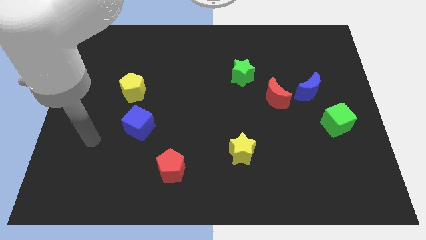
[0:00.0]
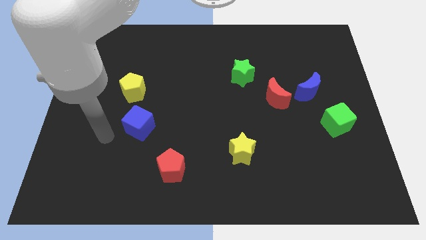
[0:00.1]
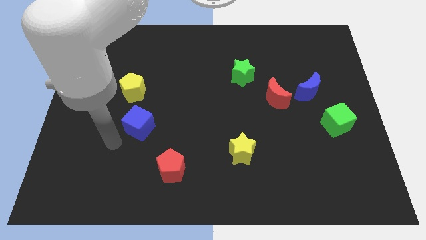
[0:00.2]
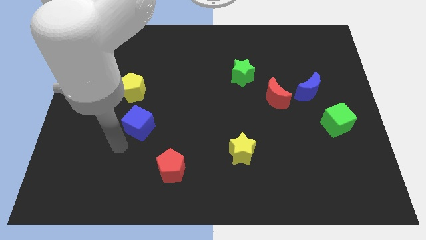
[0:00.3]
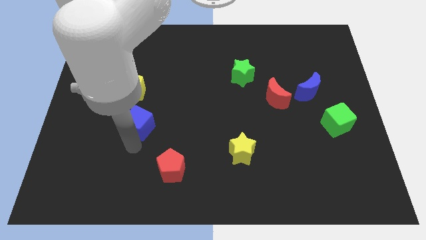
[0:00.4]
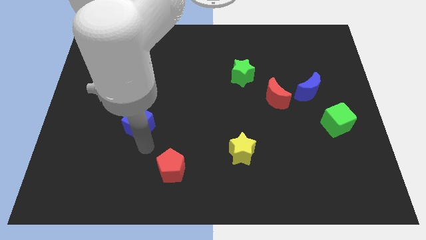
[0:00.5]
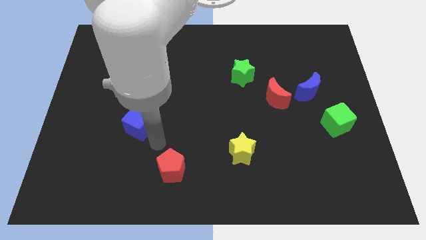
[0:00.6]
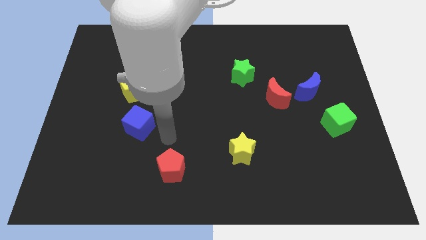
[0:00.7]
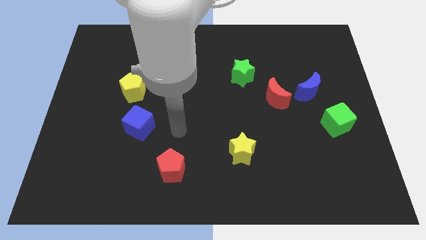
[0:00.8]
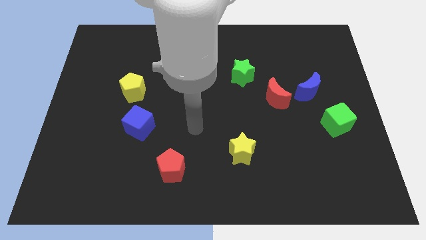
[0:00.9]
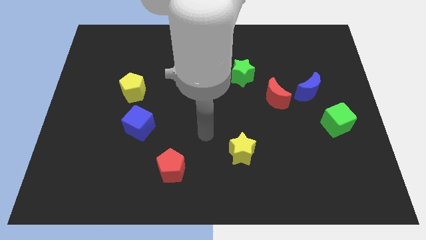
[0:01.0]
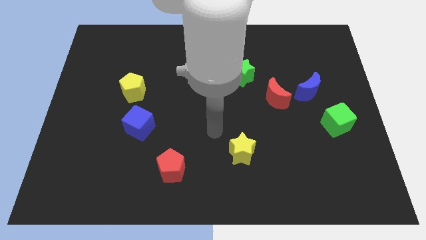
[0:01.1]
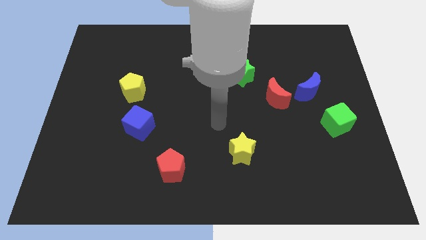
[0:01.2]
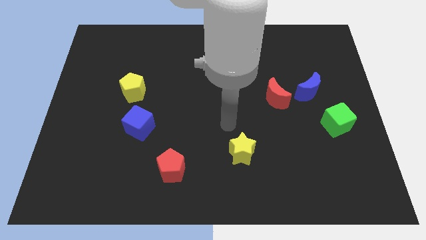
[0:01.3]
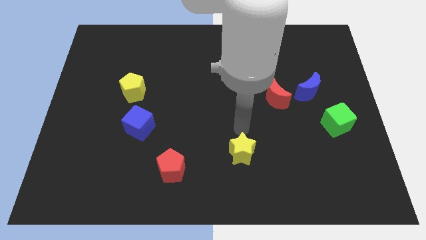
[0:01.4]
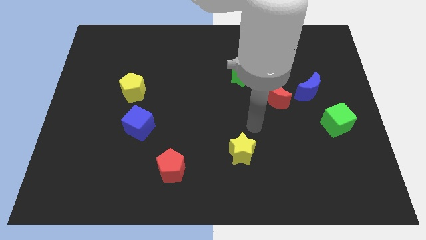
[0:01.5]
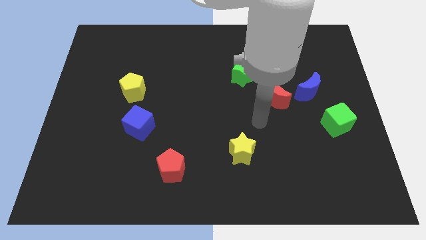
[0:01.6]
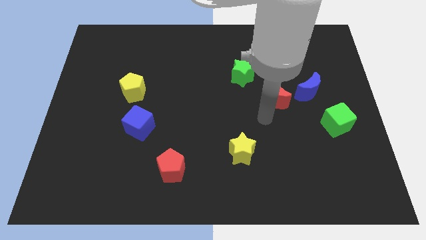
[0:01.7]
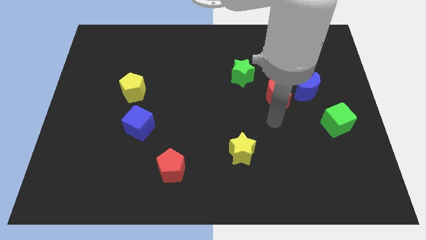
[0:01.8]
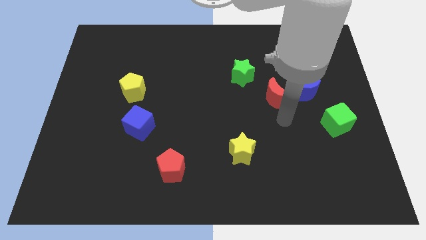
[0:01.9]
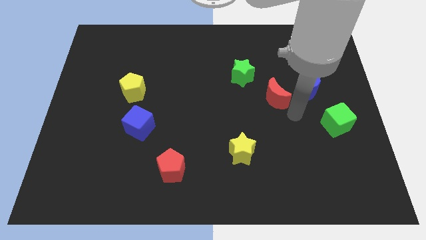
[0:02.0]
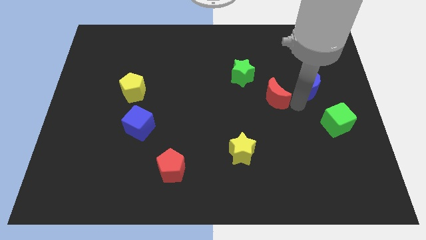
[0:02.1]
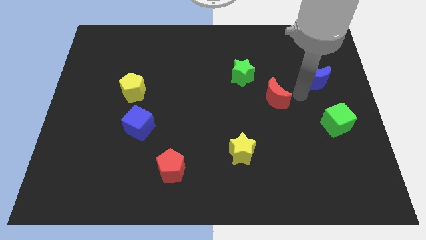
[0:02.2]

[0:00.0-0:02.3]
separate the red moon from the blue moon

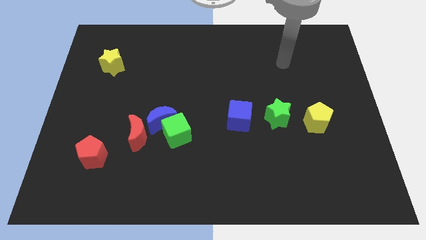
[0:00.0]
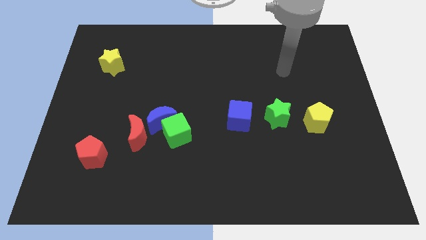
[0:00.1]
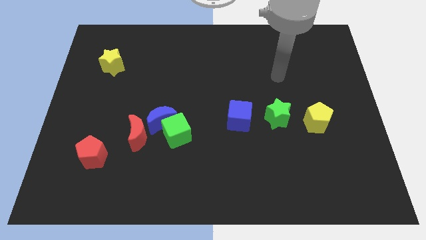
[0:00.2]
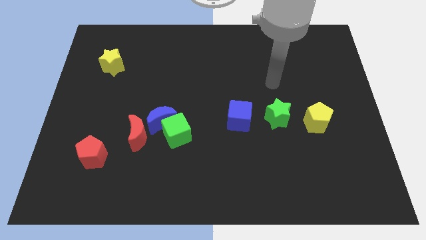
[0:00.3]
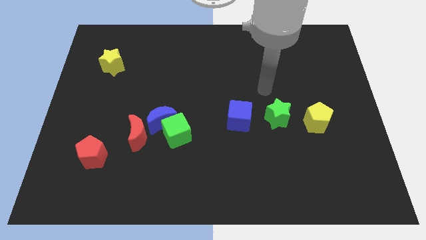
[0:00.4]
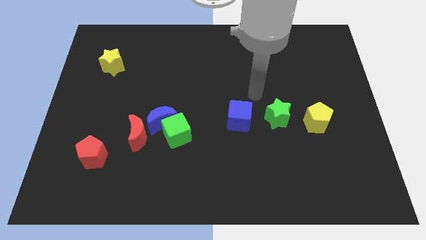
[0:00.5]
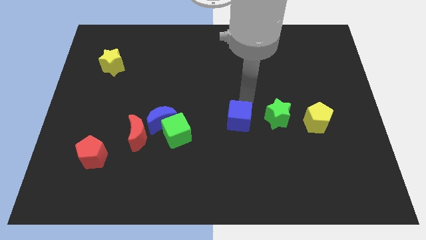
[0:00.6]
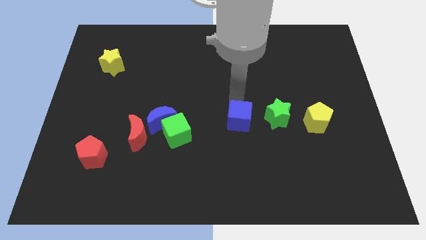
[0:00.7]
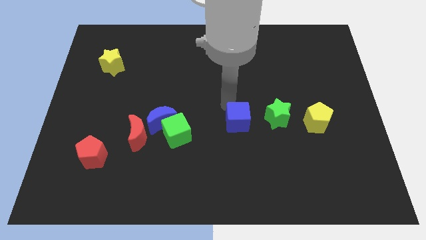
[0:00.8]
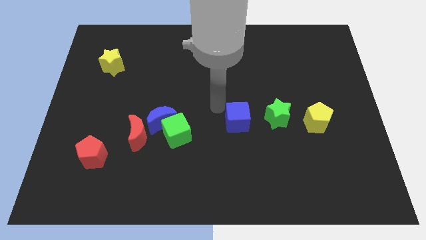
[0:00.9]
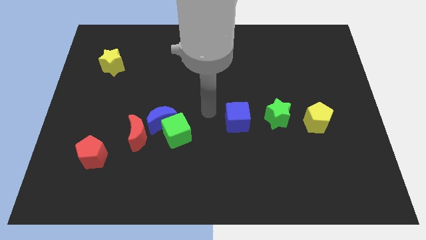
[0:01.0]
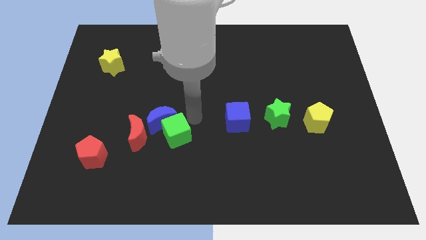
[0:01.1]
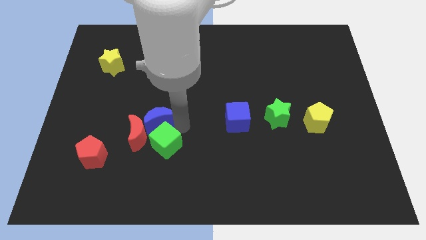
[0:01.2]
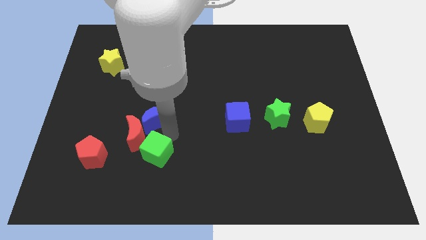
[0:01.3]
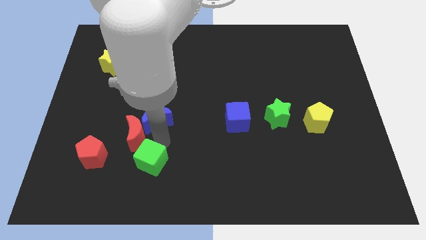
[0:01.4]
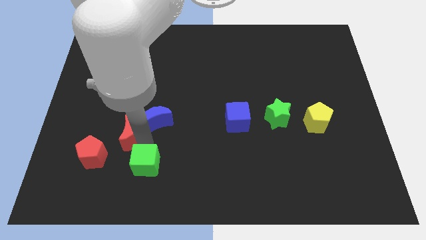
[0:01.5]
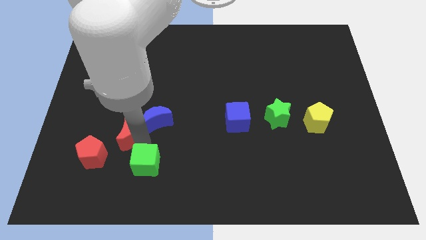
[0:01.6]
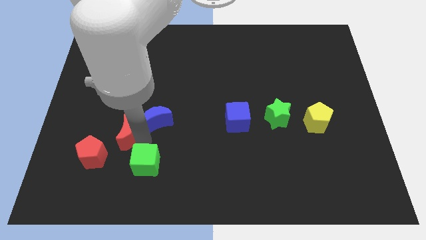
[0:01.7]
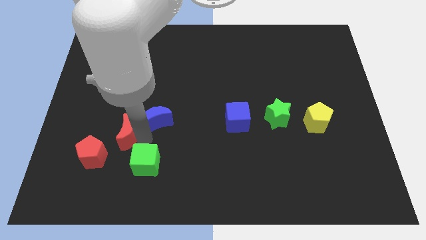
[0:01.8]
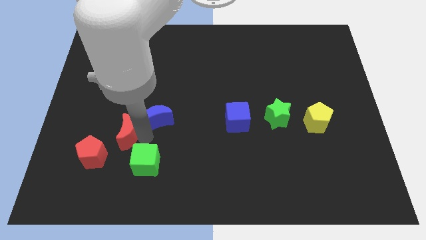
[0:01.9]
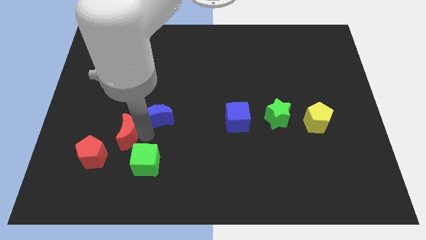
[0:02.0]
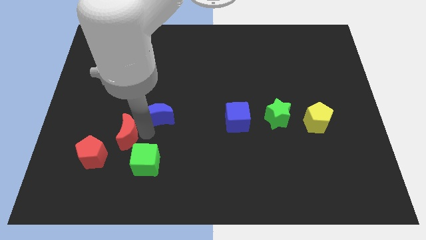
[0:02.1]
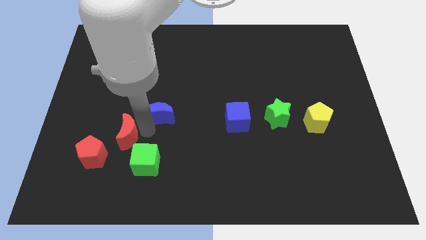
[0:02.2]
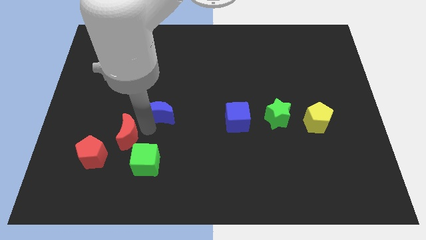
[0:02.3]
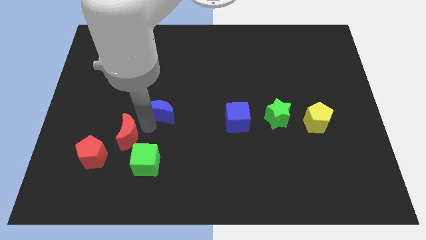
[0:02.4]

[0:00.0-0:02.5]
separate the blue moon from the green cube and red moon

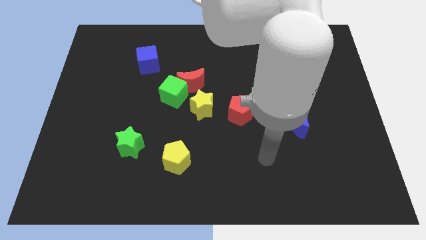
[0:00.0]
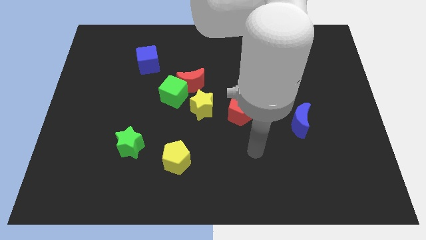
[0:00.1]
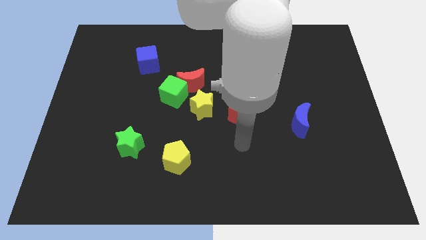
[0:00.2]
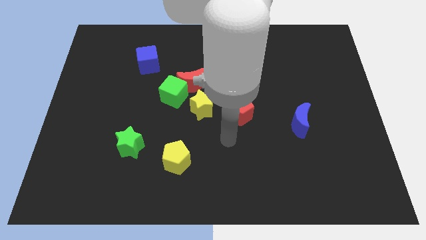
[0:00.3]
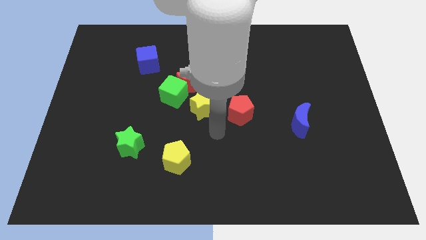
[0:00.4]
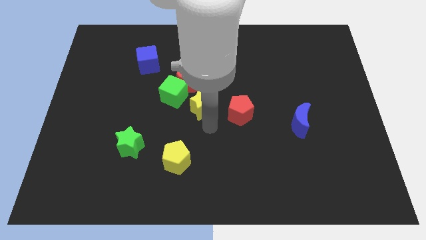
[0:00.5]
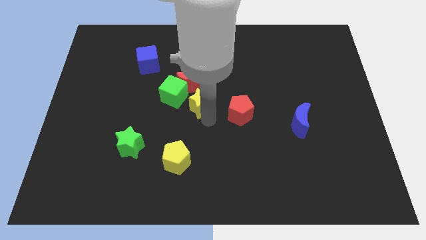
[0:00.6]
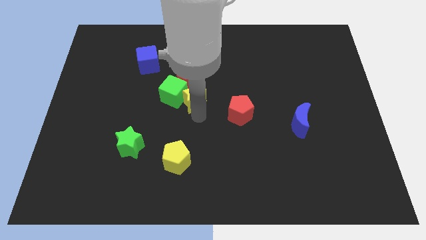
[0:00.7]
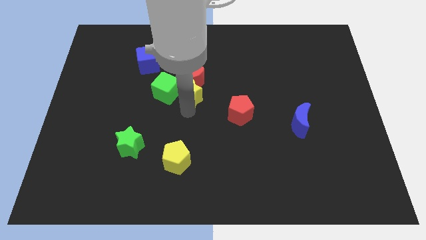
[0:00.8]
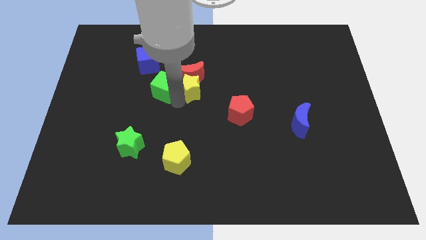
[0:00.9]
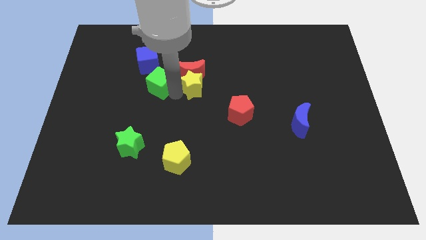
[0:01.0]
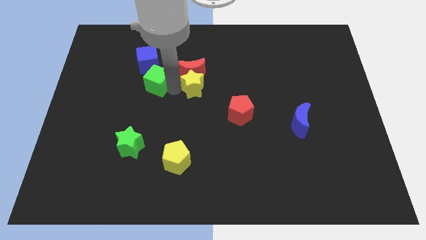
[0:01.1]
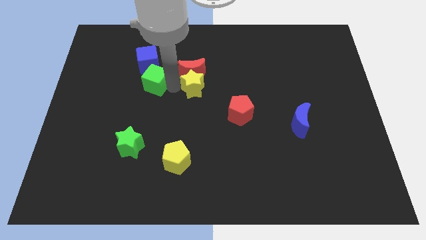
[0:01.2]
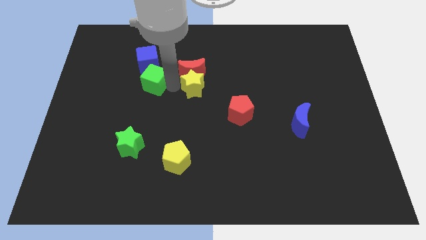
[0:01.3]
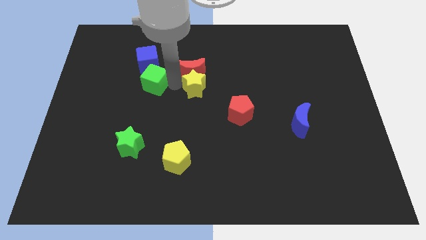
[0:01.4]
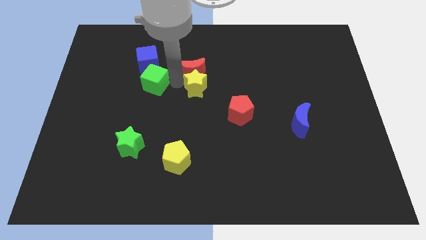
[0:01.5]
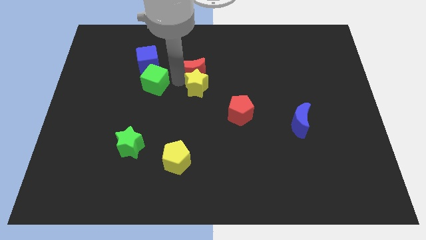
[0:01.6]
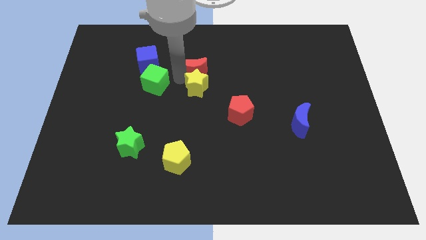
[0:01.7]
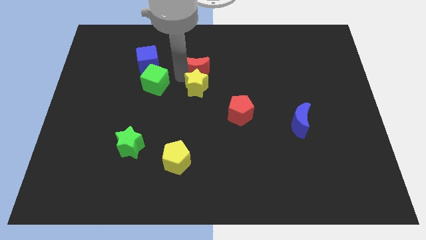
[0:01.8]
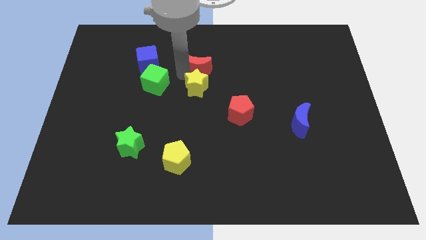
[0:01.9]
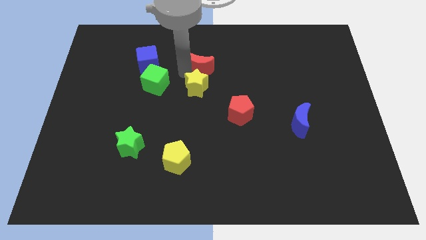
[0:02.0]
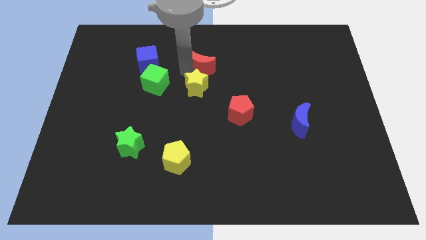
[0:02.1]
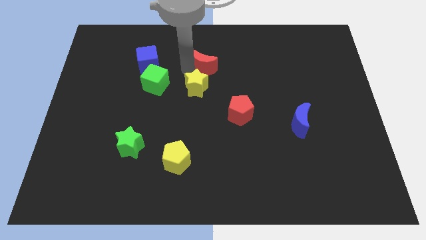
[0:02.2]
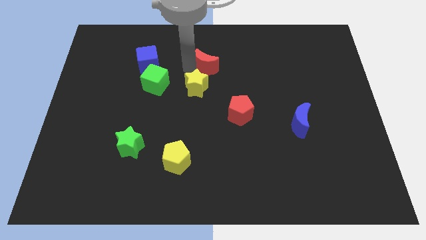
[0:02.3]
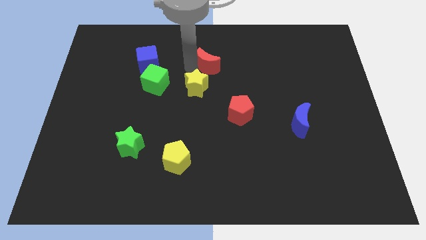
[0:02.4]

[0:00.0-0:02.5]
separate the red moon from the green cube and yellow star

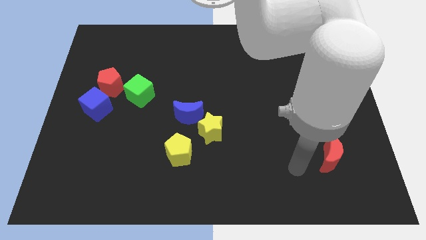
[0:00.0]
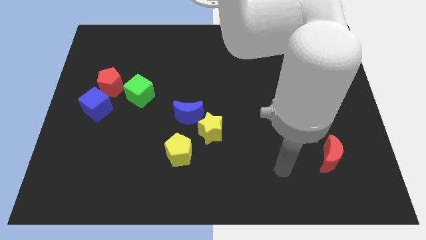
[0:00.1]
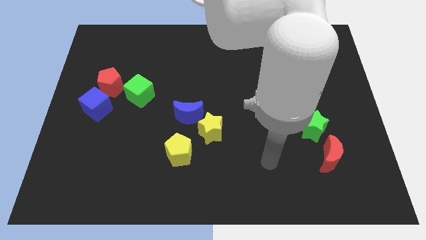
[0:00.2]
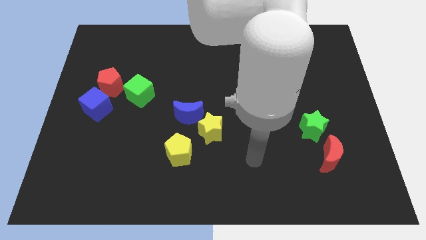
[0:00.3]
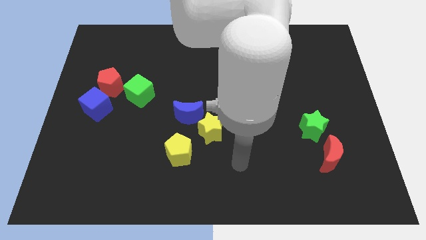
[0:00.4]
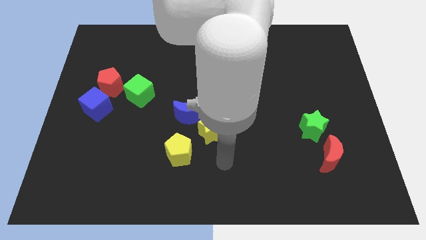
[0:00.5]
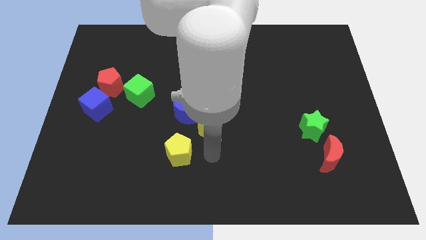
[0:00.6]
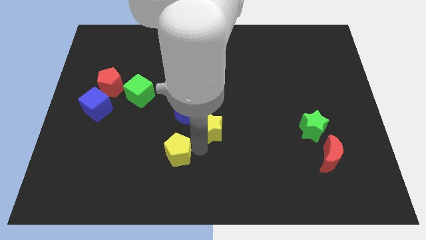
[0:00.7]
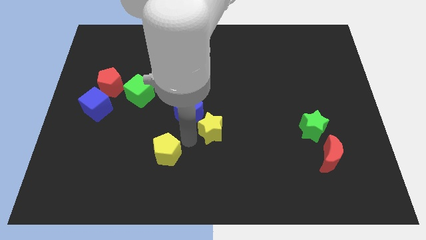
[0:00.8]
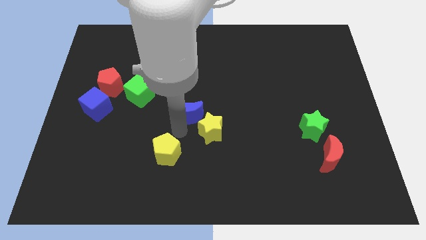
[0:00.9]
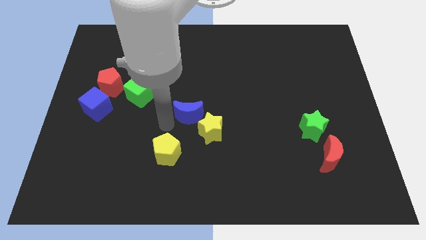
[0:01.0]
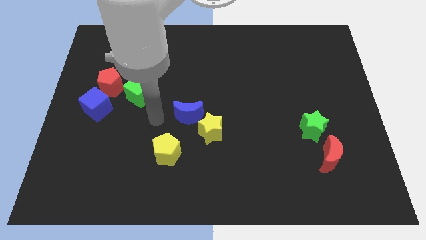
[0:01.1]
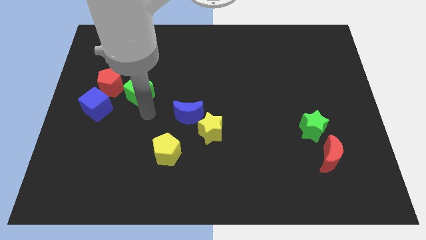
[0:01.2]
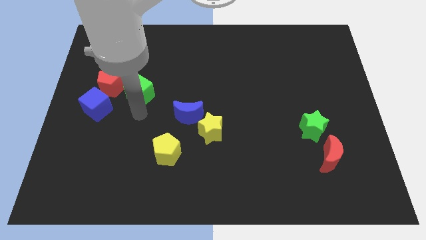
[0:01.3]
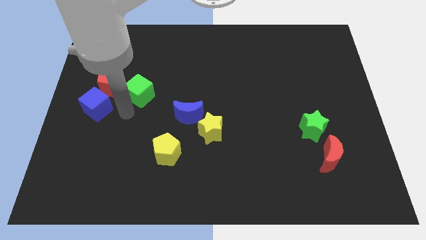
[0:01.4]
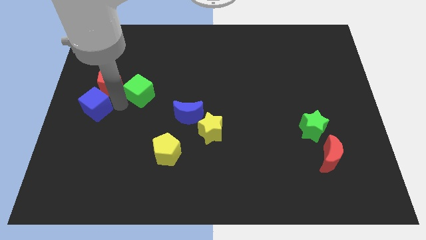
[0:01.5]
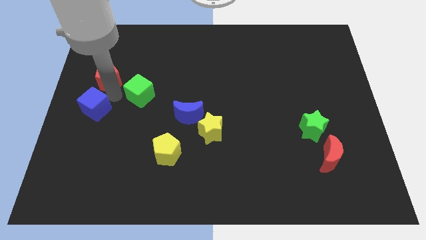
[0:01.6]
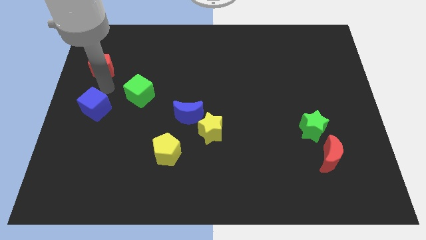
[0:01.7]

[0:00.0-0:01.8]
pull the blue cube apart from the red pentagon
